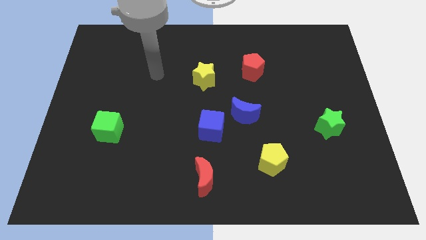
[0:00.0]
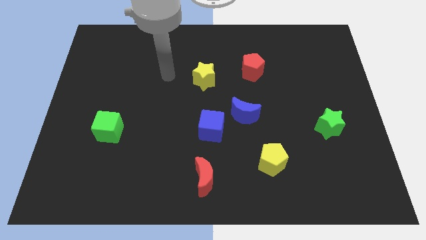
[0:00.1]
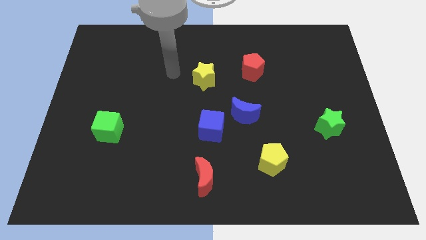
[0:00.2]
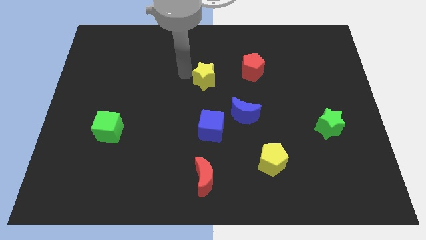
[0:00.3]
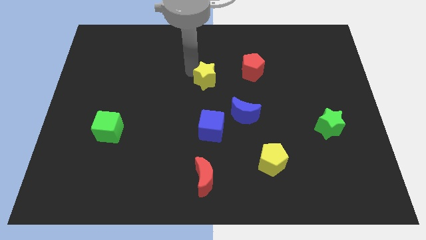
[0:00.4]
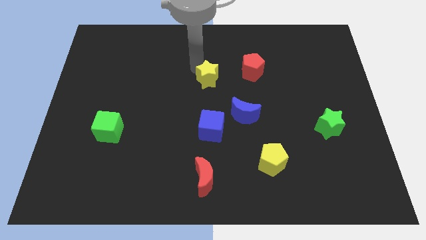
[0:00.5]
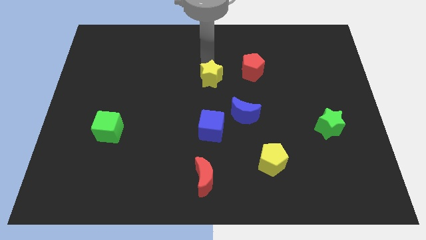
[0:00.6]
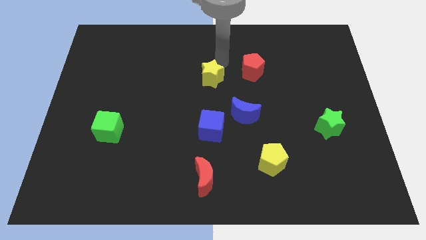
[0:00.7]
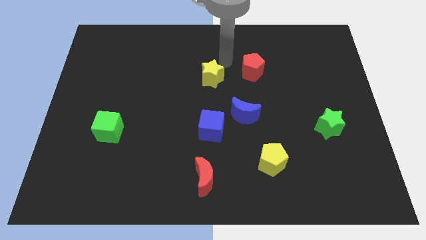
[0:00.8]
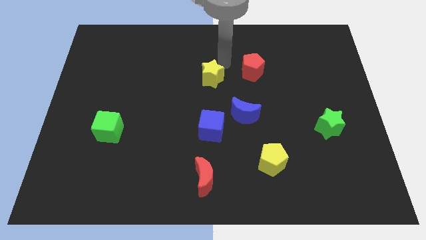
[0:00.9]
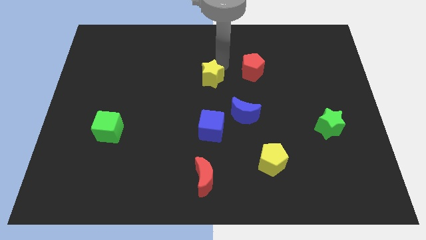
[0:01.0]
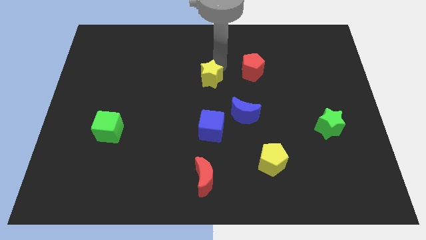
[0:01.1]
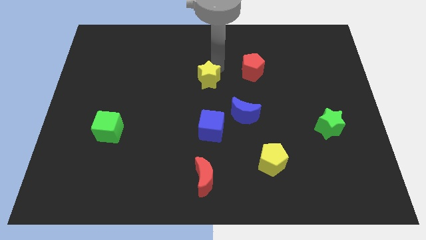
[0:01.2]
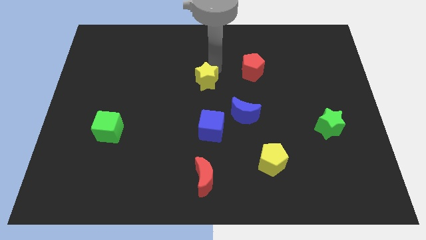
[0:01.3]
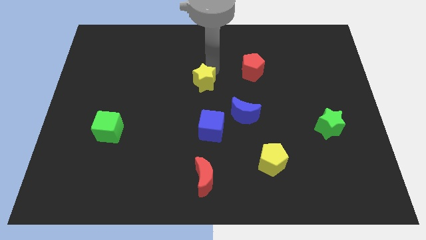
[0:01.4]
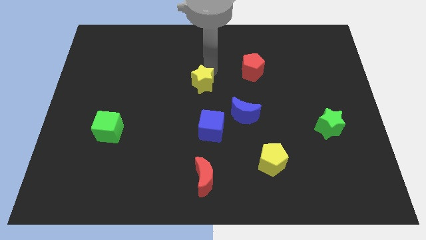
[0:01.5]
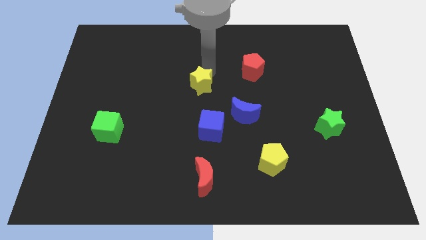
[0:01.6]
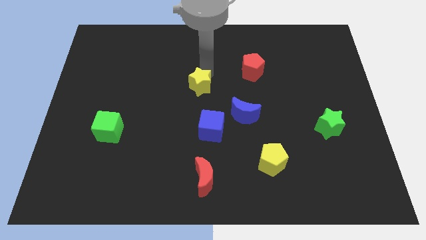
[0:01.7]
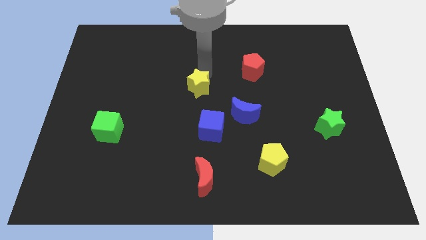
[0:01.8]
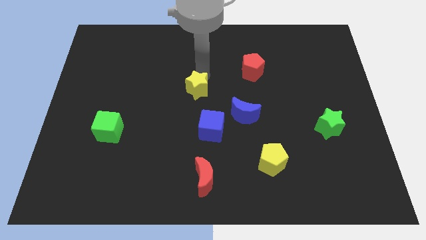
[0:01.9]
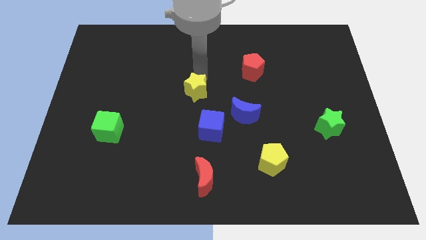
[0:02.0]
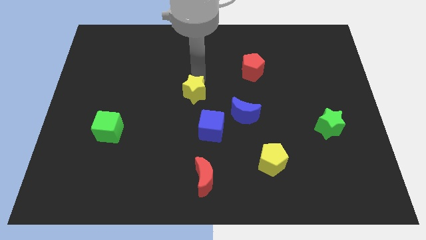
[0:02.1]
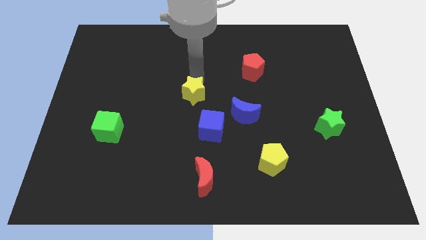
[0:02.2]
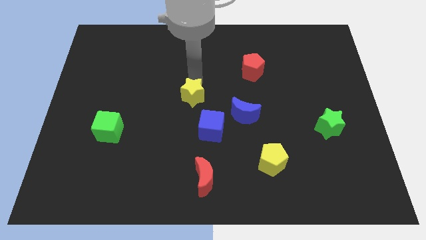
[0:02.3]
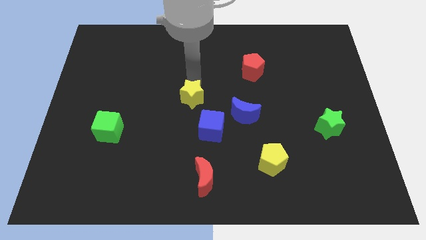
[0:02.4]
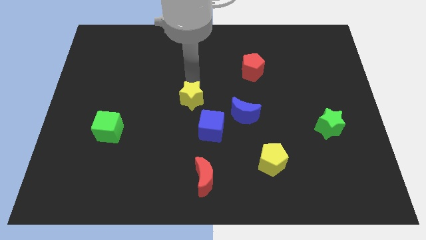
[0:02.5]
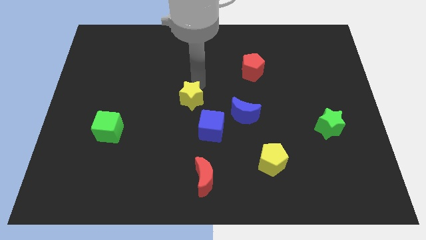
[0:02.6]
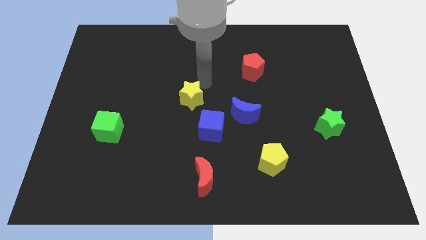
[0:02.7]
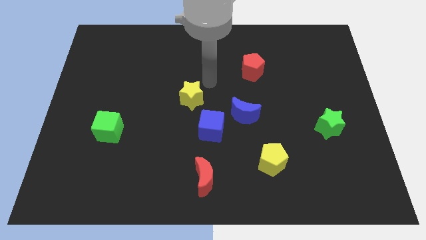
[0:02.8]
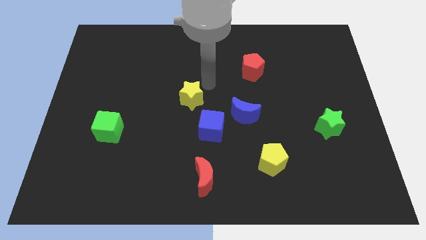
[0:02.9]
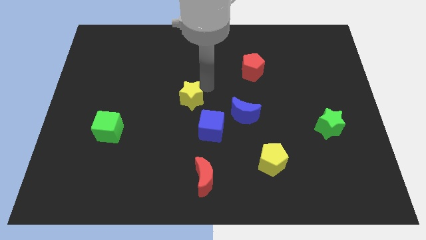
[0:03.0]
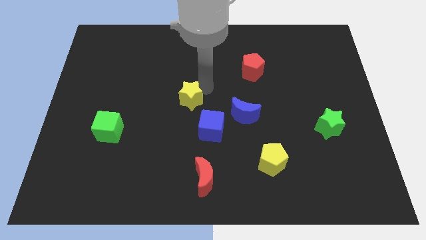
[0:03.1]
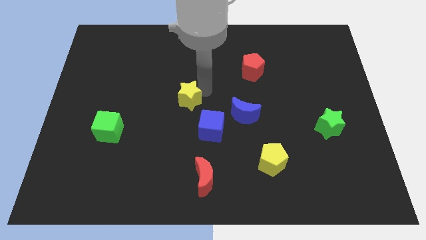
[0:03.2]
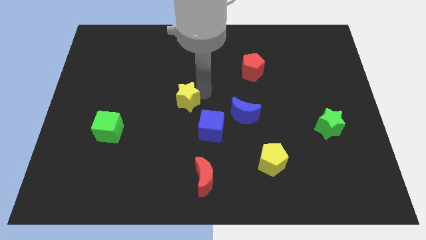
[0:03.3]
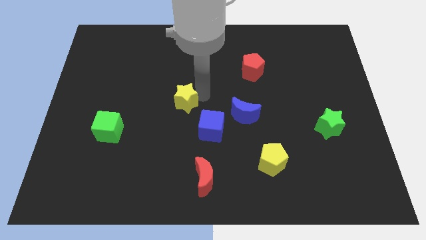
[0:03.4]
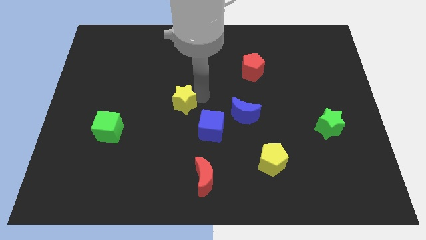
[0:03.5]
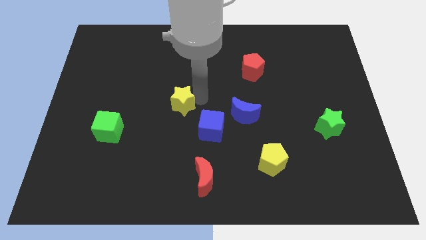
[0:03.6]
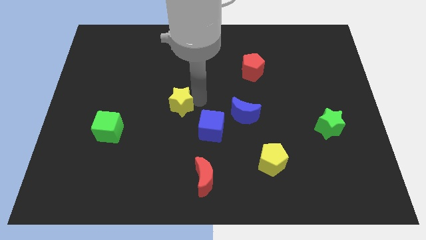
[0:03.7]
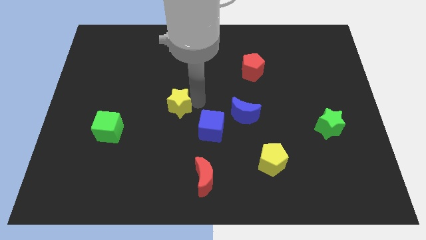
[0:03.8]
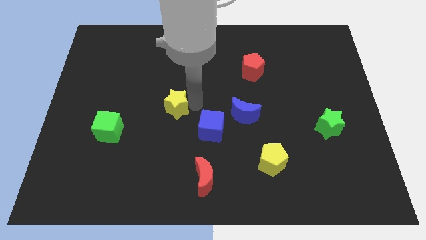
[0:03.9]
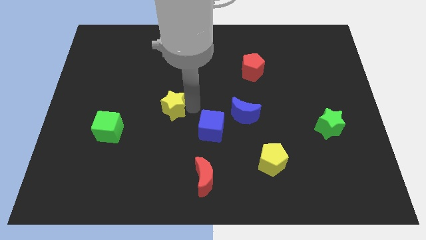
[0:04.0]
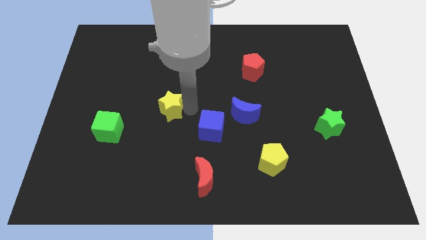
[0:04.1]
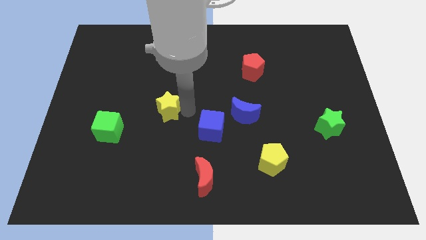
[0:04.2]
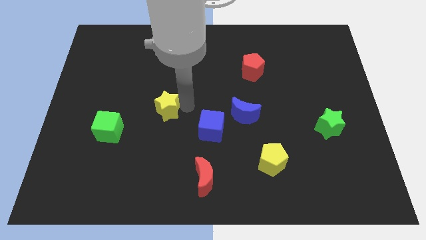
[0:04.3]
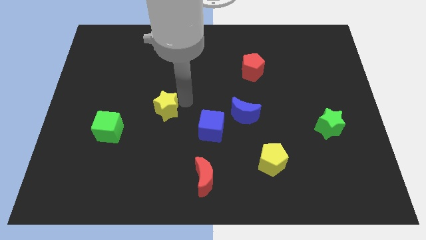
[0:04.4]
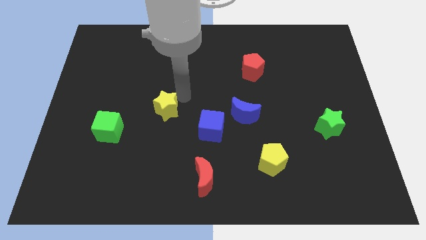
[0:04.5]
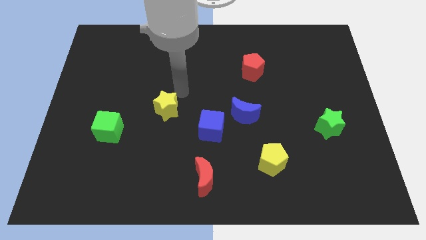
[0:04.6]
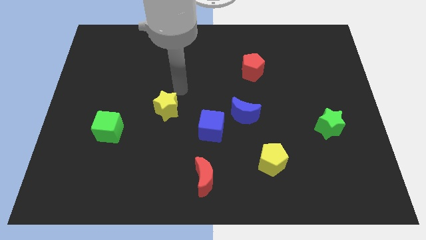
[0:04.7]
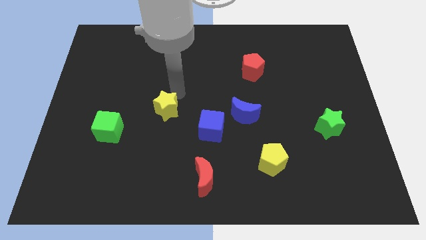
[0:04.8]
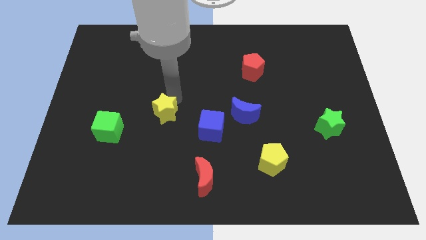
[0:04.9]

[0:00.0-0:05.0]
put the yellow star just right of the green cube

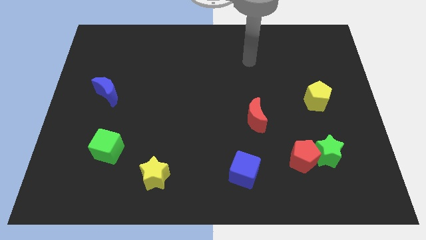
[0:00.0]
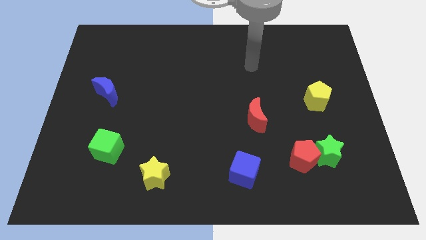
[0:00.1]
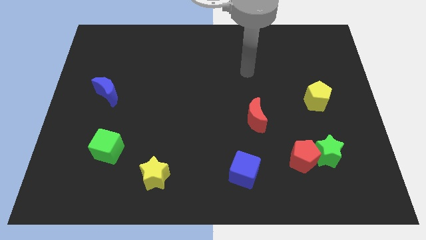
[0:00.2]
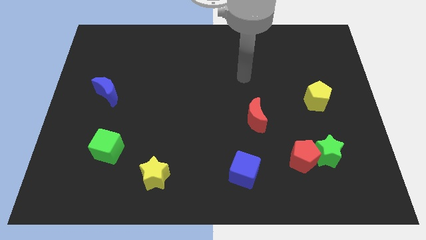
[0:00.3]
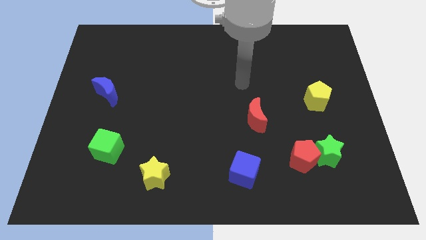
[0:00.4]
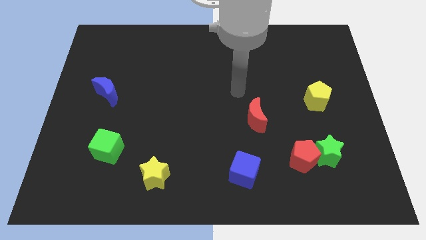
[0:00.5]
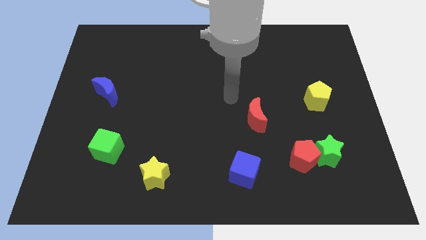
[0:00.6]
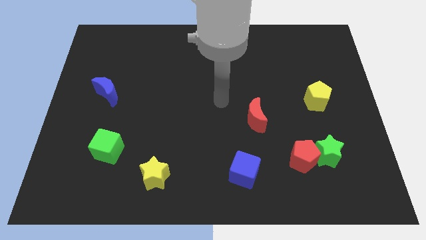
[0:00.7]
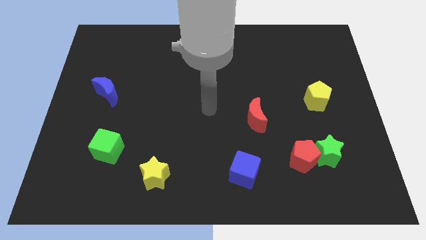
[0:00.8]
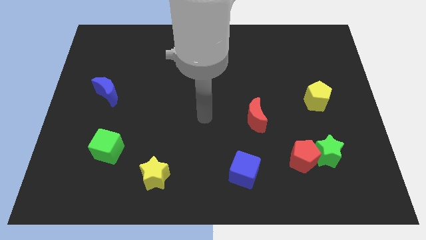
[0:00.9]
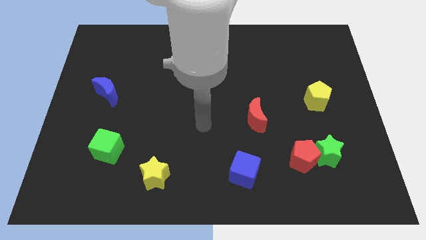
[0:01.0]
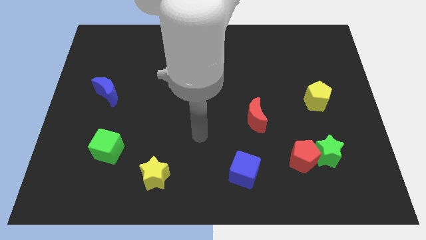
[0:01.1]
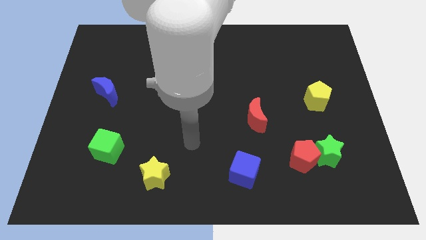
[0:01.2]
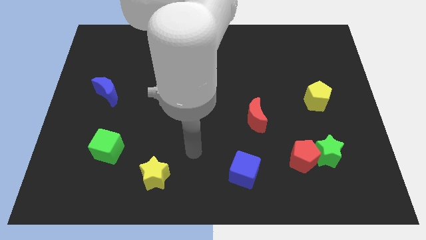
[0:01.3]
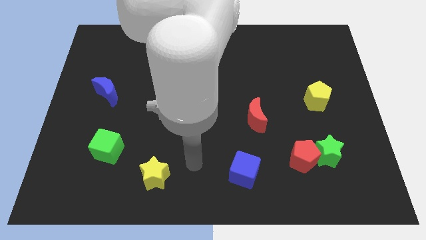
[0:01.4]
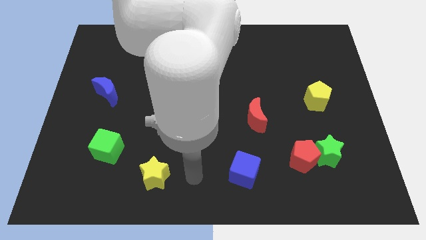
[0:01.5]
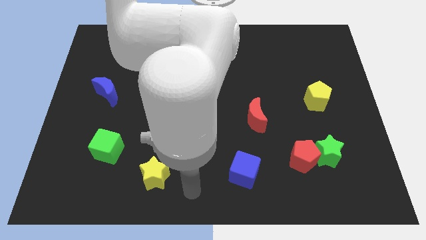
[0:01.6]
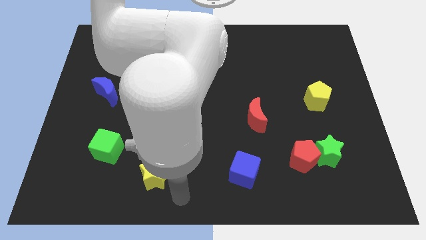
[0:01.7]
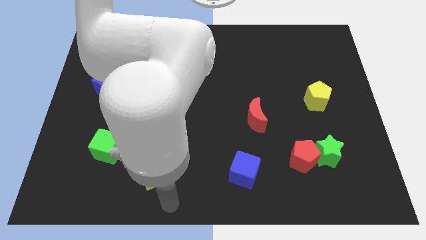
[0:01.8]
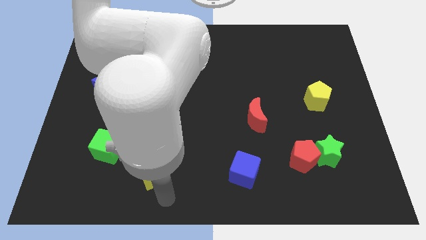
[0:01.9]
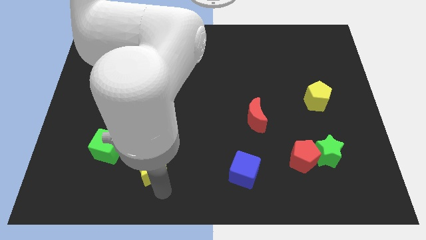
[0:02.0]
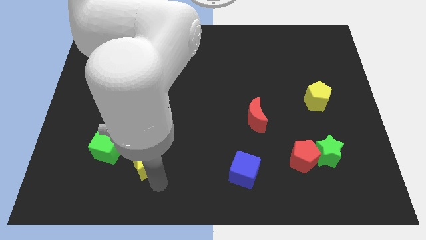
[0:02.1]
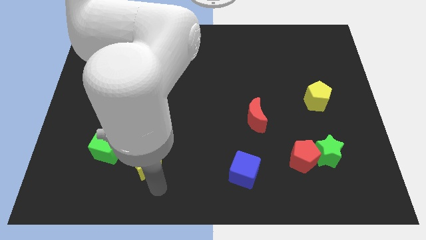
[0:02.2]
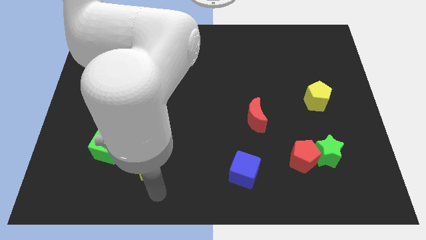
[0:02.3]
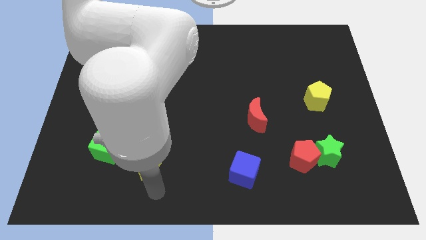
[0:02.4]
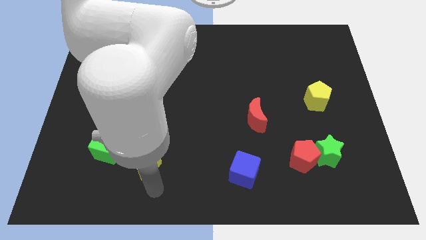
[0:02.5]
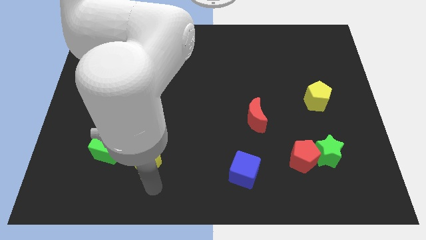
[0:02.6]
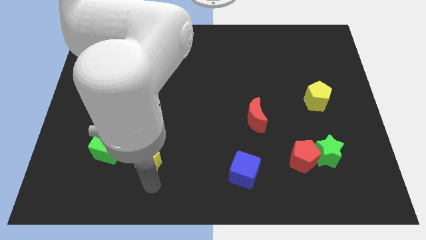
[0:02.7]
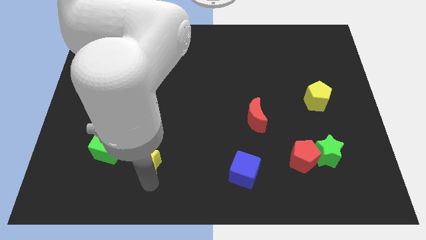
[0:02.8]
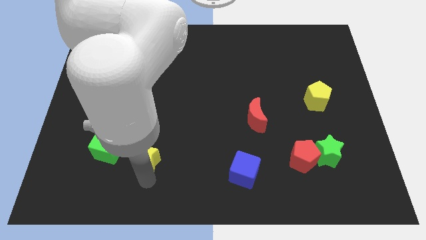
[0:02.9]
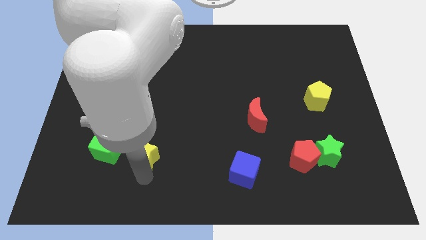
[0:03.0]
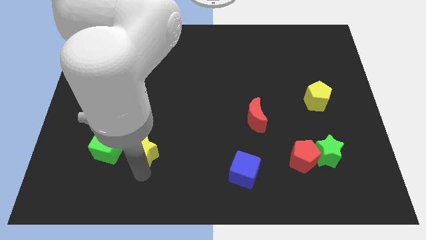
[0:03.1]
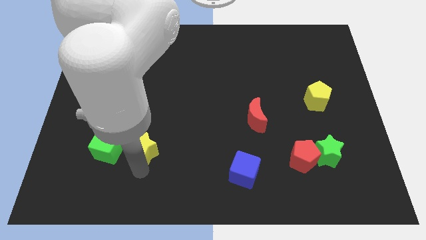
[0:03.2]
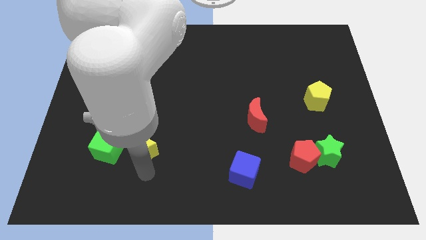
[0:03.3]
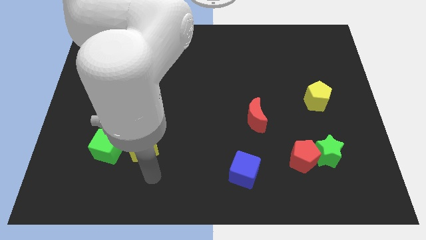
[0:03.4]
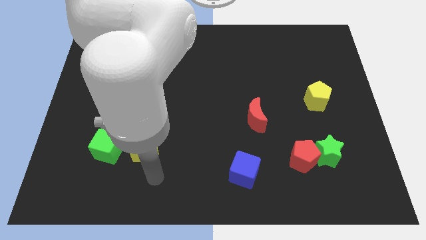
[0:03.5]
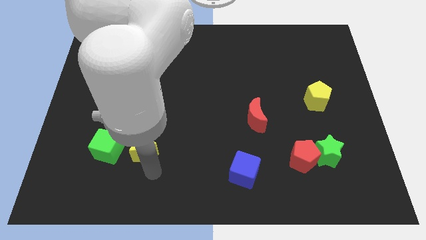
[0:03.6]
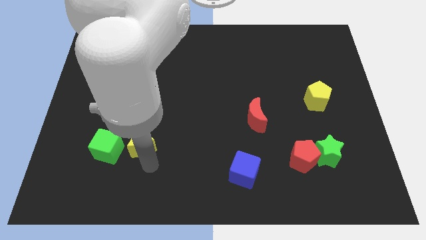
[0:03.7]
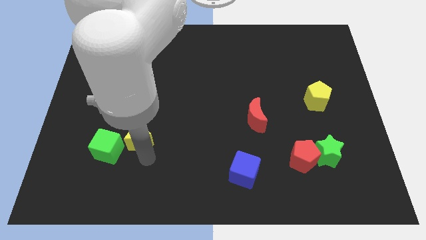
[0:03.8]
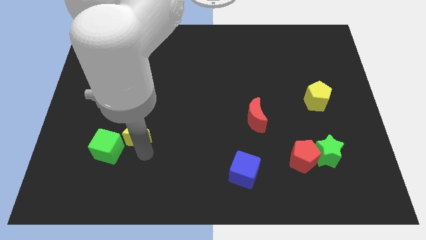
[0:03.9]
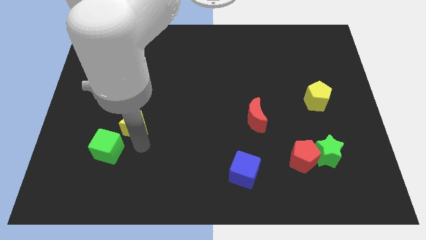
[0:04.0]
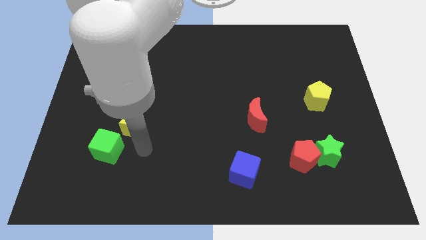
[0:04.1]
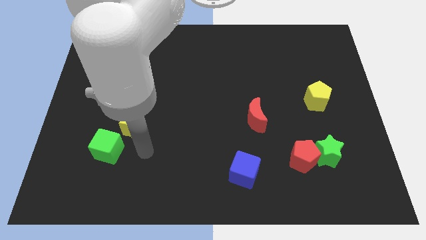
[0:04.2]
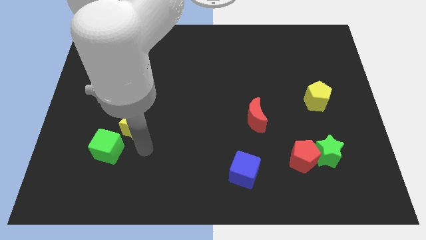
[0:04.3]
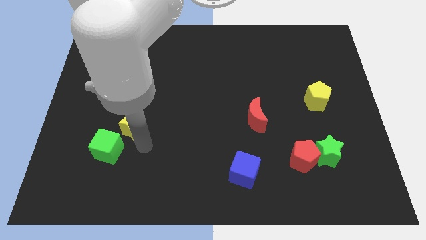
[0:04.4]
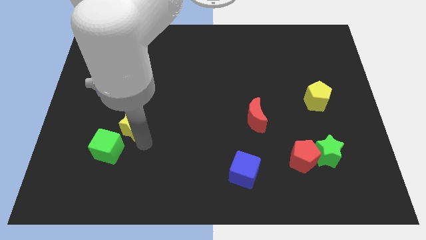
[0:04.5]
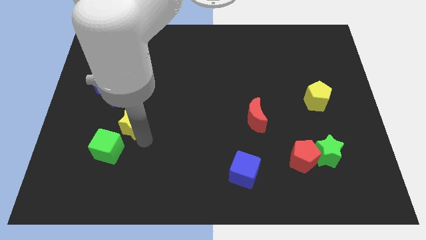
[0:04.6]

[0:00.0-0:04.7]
put the yellow star diagonally down and to the right of the blue moon
